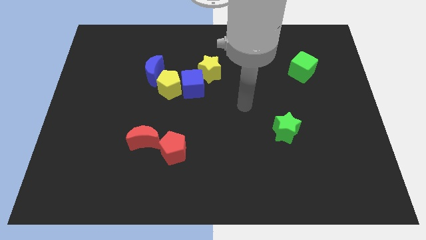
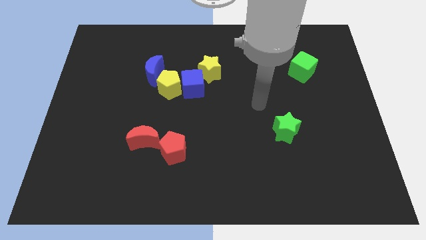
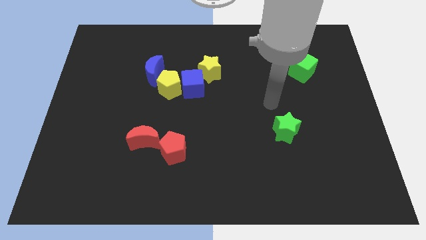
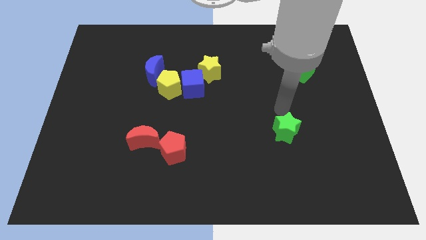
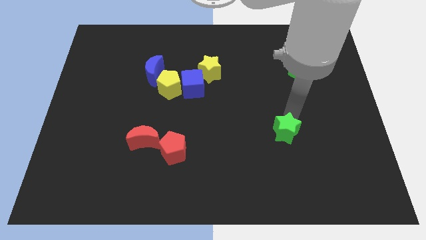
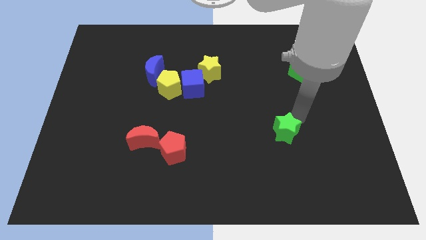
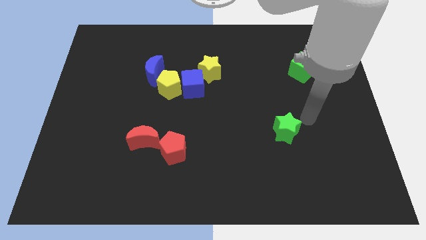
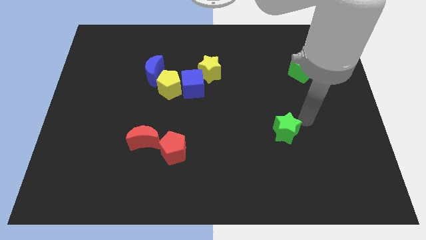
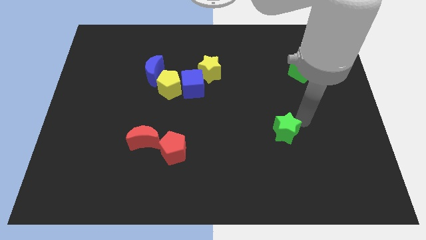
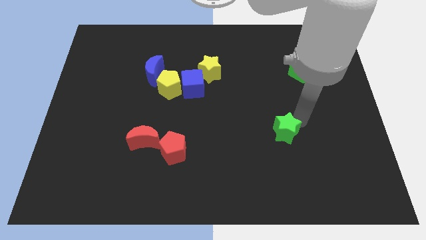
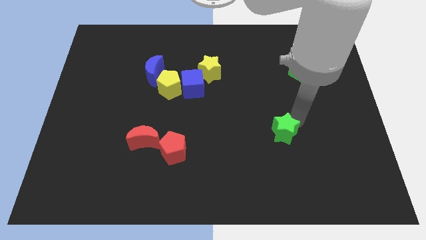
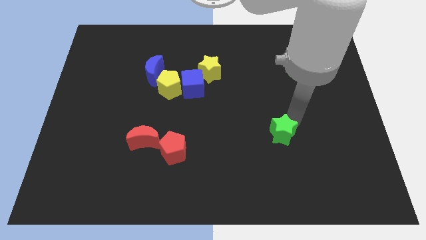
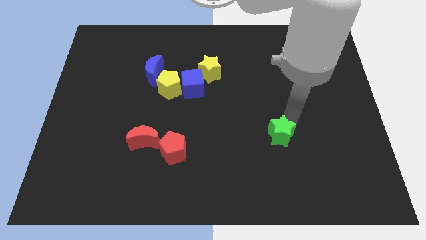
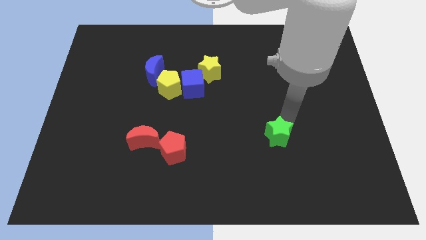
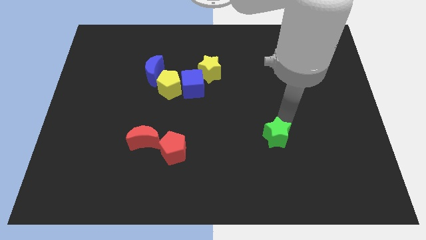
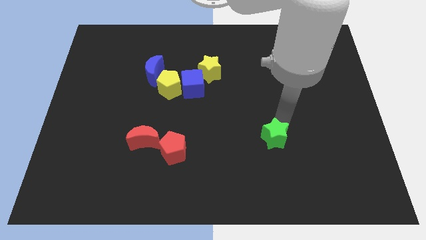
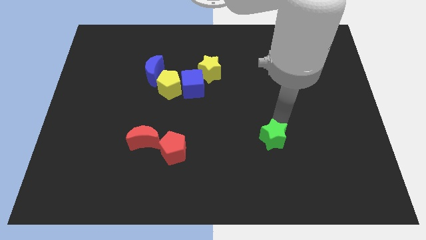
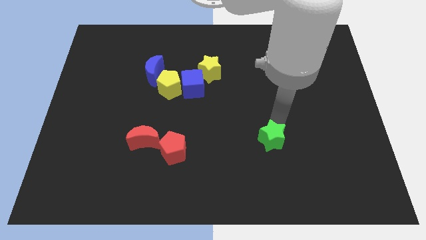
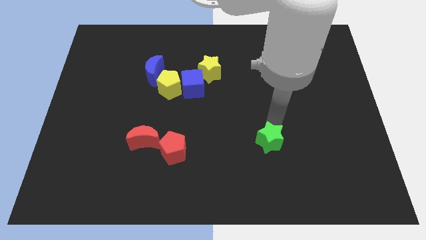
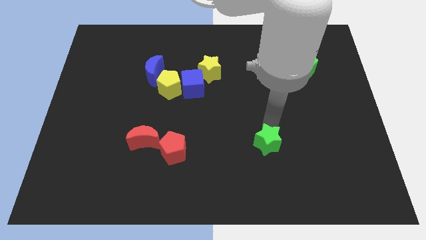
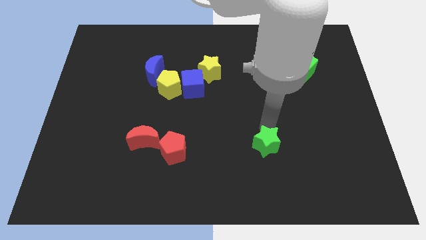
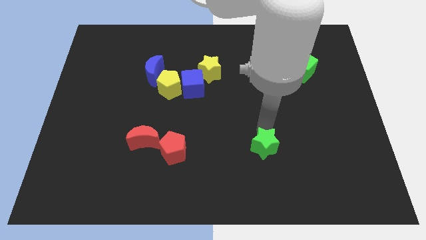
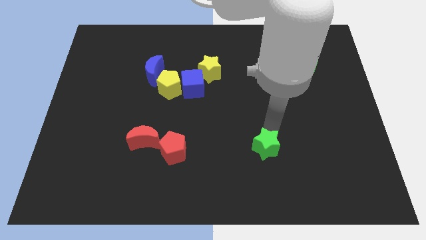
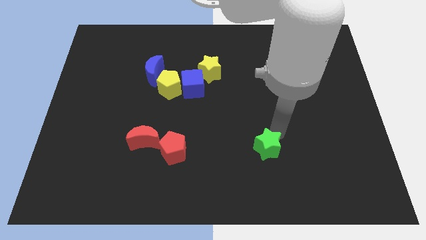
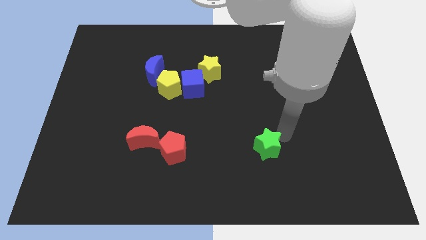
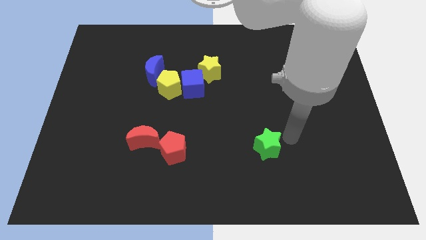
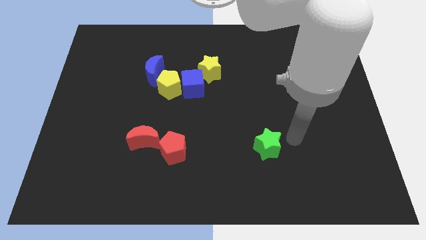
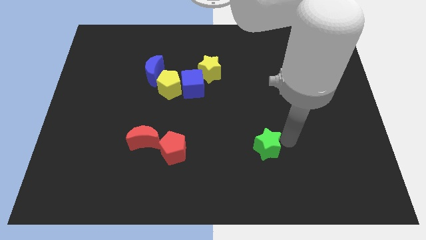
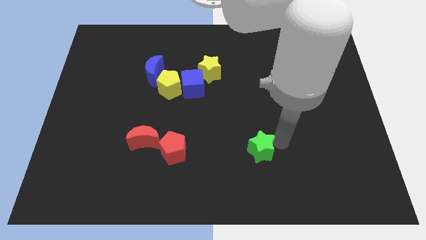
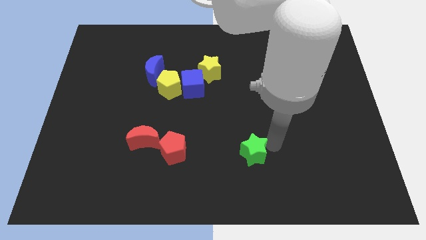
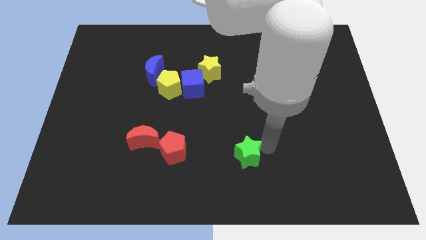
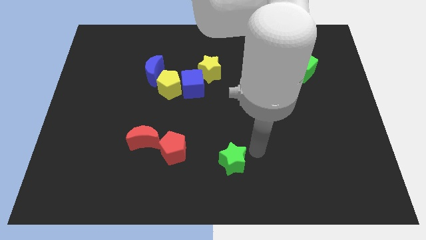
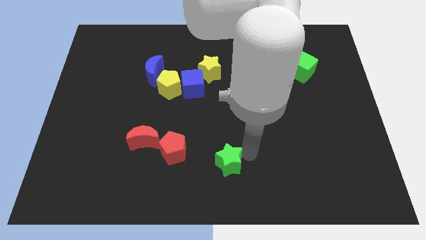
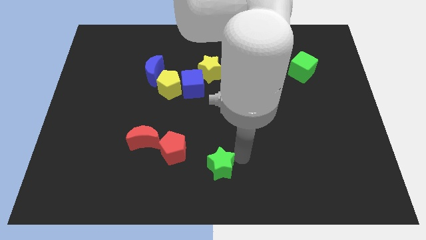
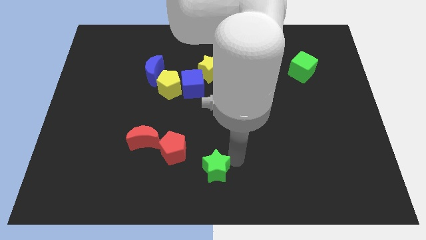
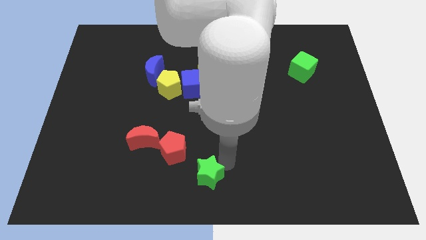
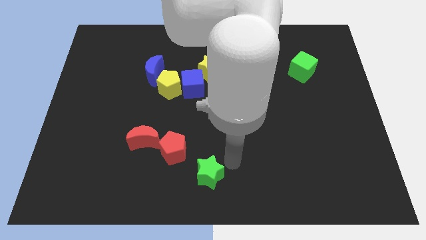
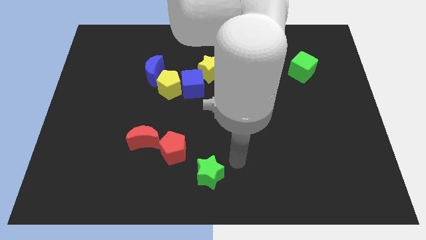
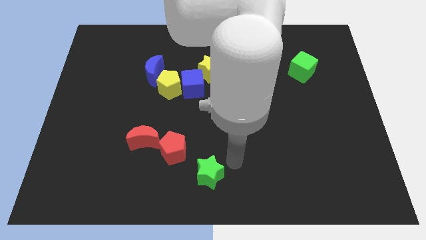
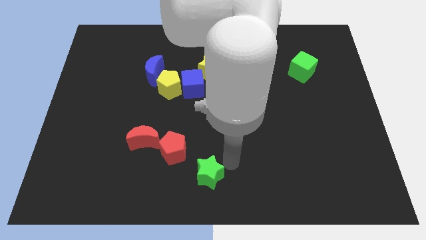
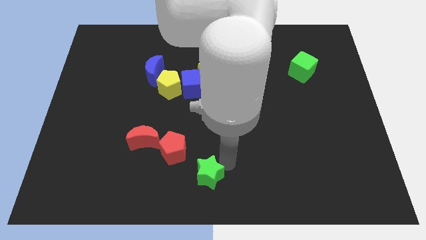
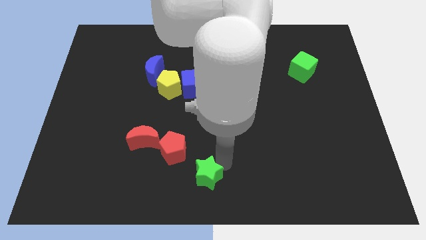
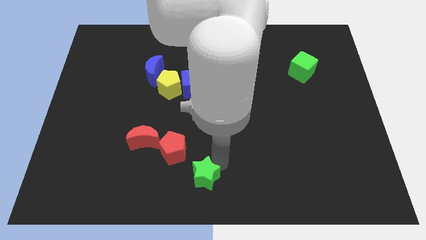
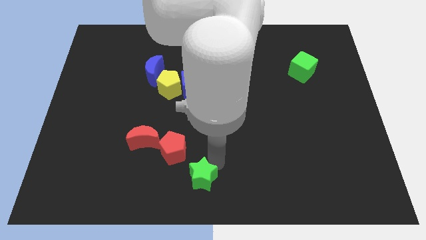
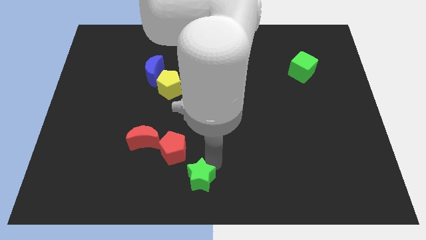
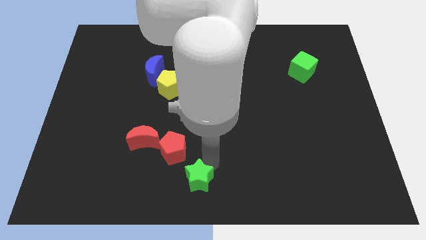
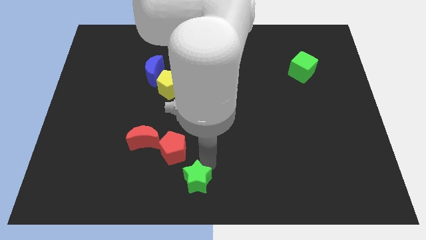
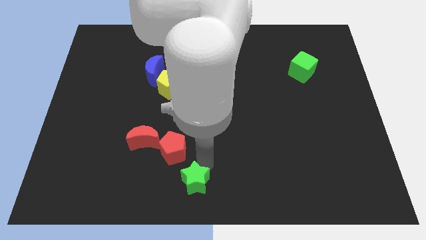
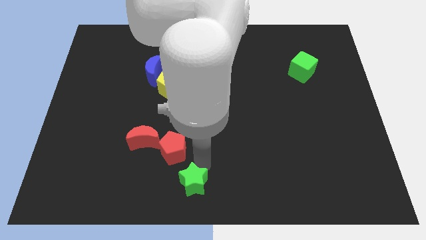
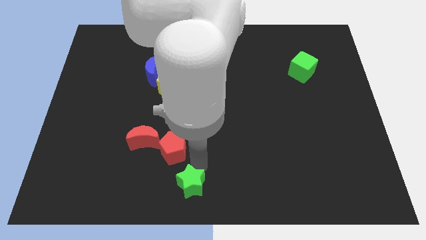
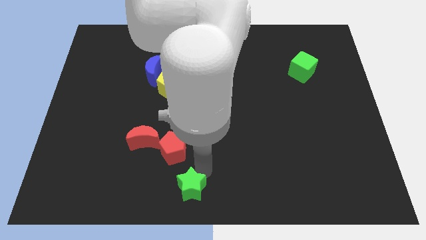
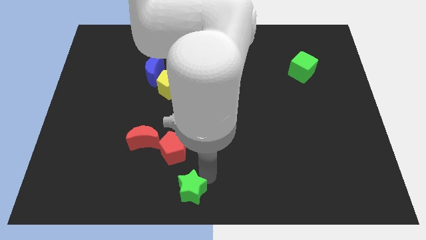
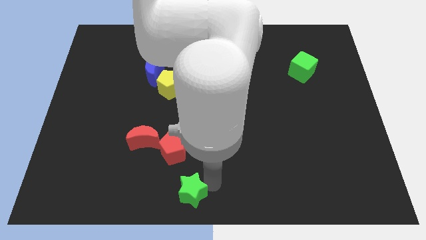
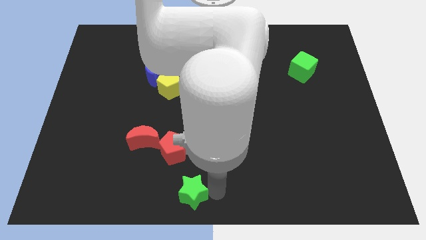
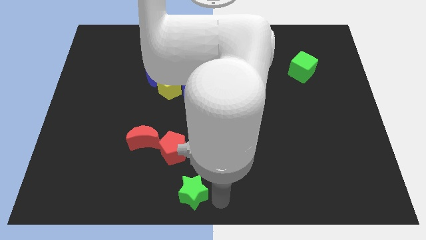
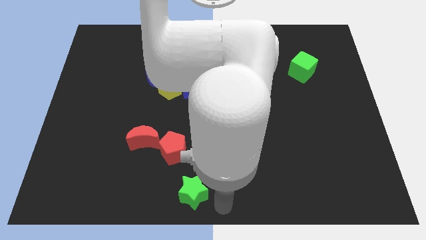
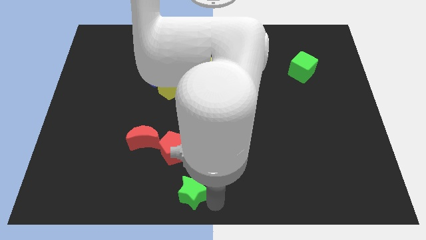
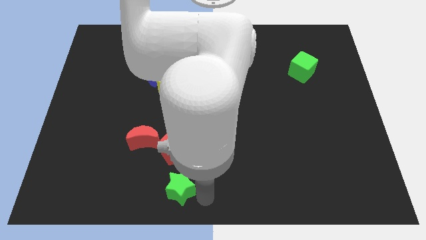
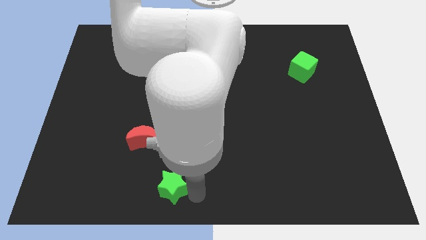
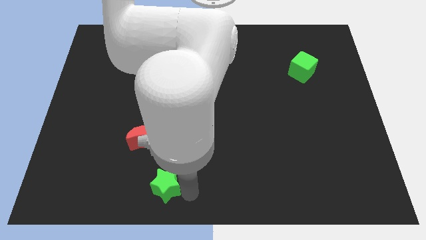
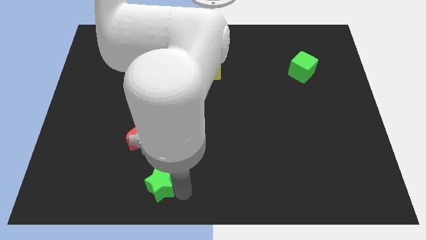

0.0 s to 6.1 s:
slide the green star to the bottom of the red moon

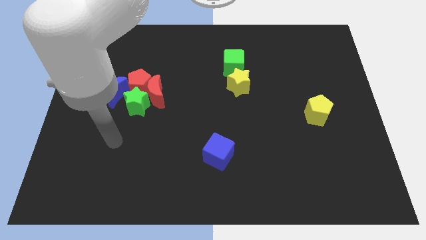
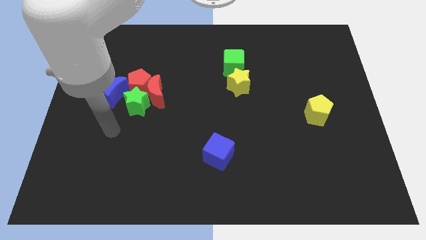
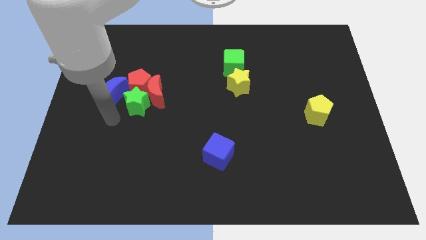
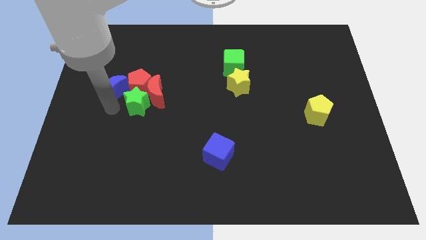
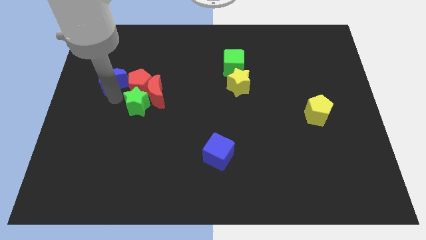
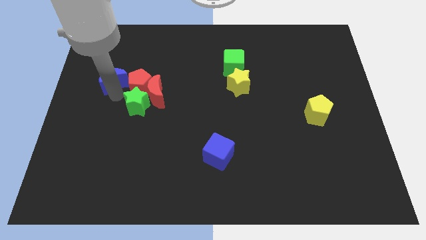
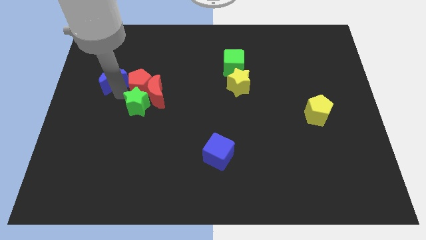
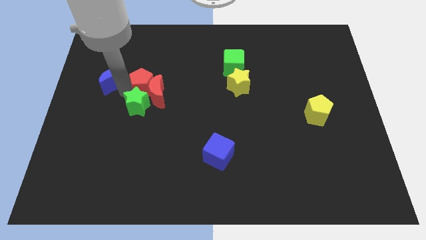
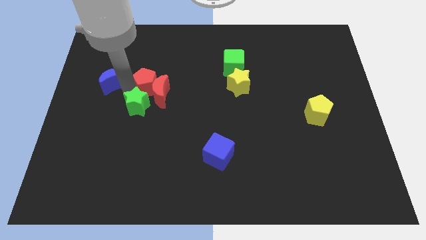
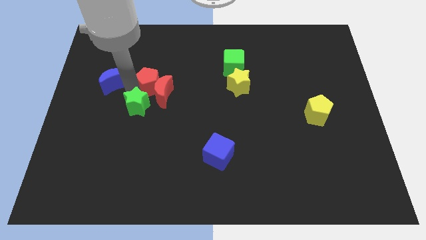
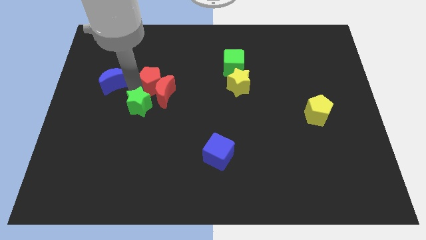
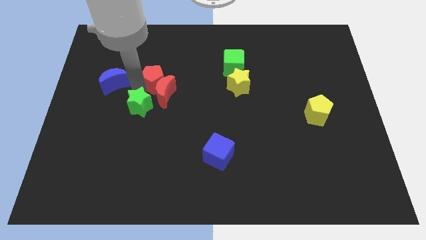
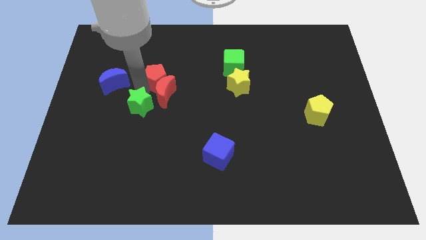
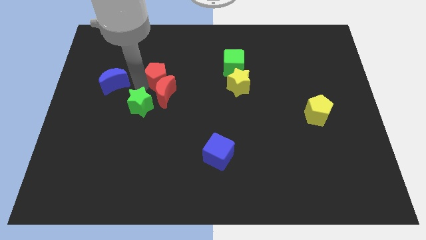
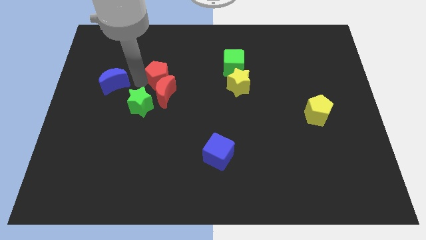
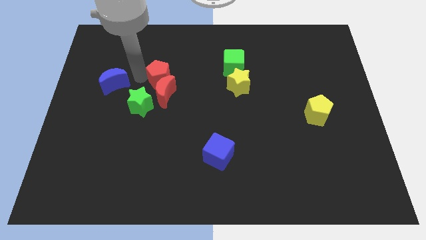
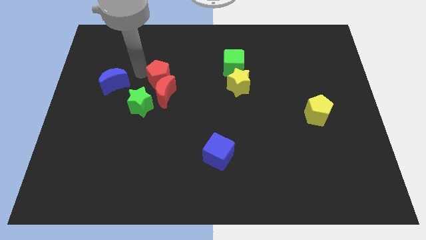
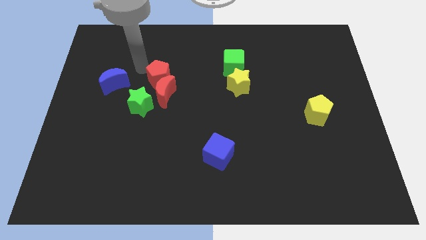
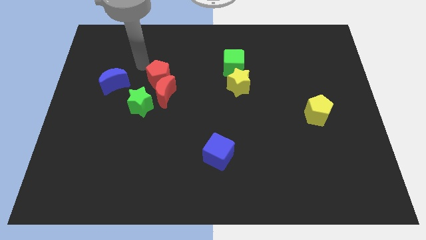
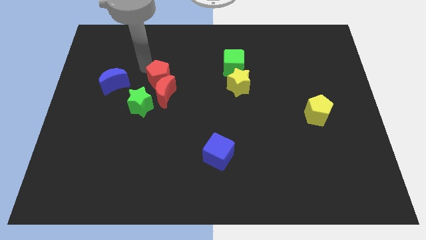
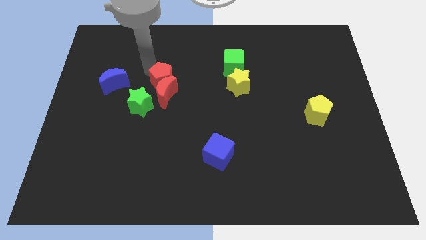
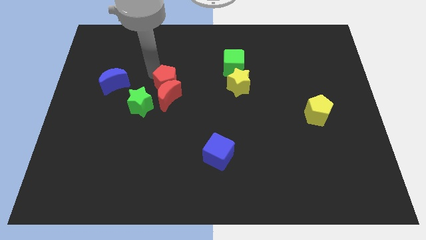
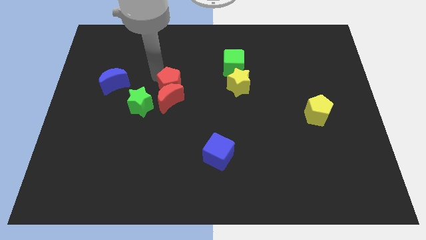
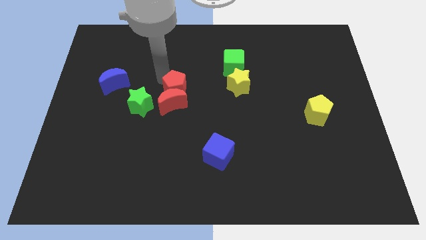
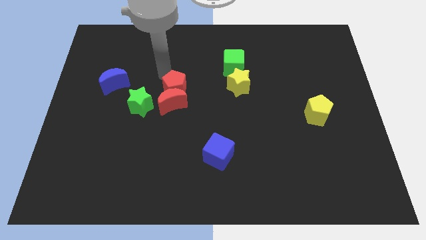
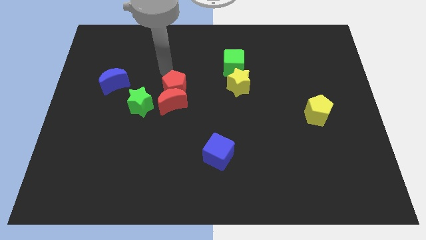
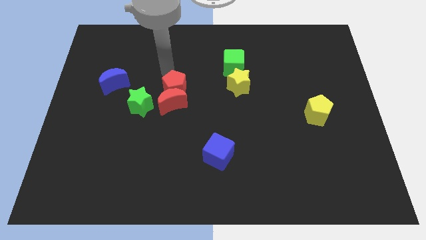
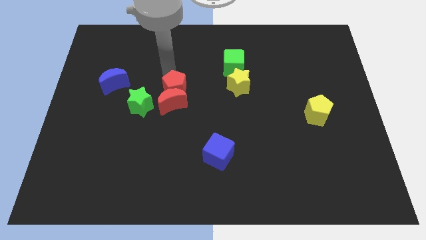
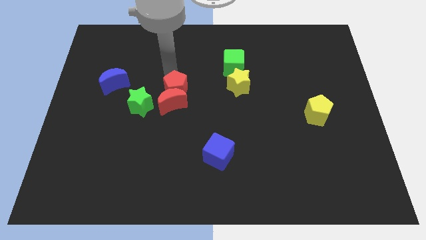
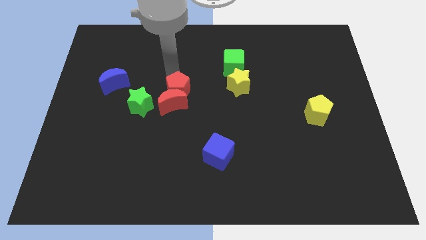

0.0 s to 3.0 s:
move the red pentagon just right of the green star
